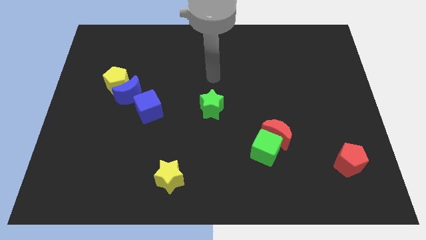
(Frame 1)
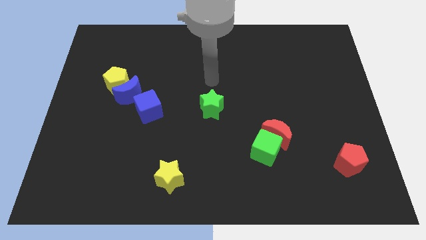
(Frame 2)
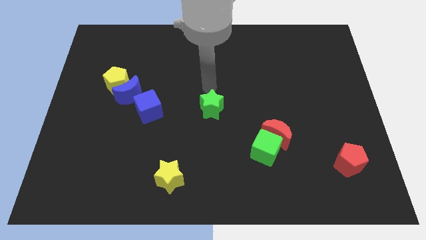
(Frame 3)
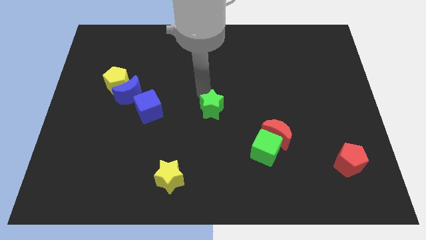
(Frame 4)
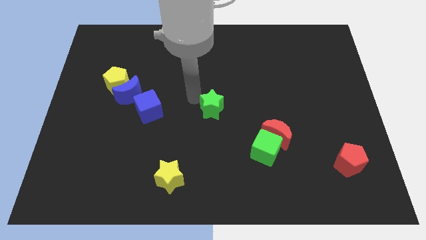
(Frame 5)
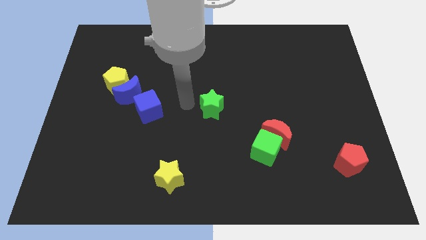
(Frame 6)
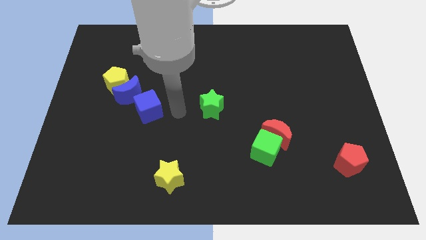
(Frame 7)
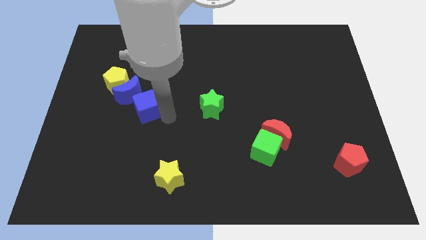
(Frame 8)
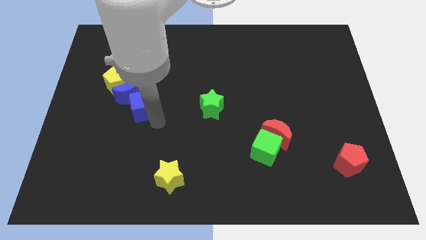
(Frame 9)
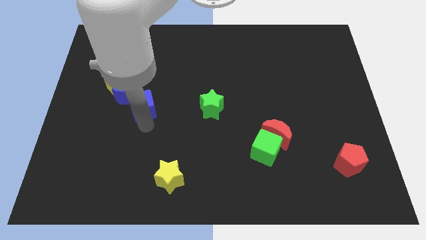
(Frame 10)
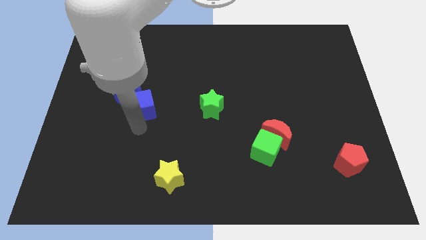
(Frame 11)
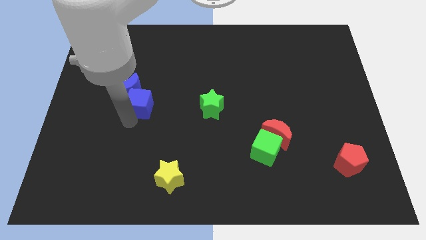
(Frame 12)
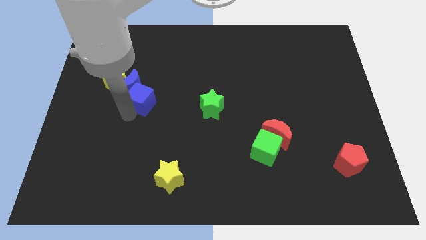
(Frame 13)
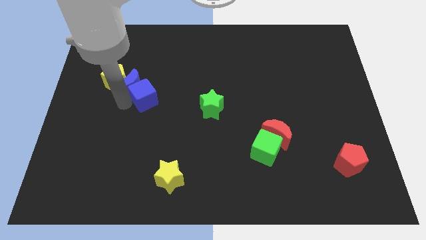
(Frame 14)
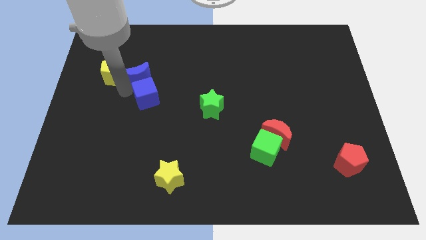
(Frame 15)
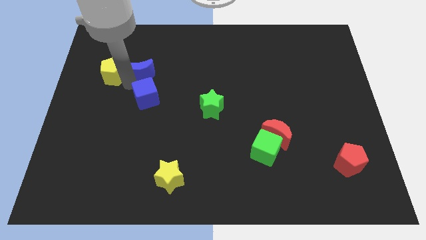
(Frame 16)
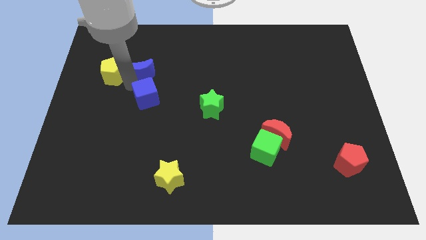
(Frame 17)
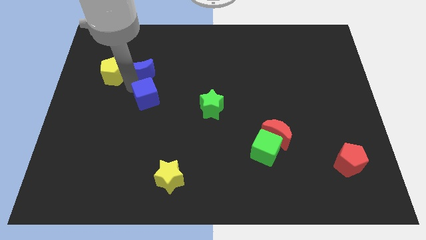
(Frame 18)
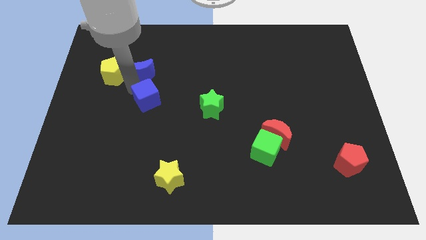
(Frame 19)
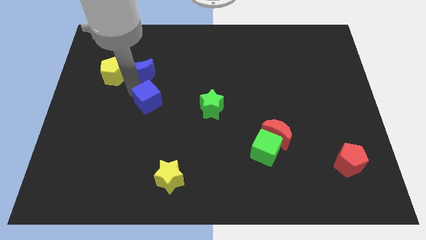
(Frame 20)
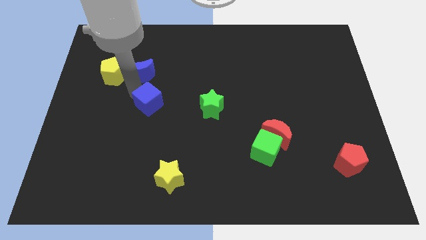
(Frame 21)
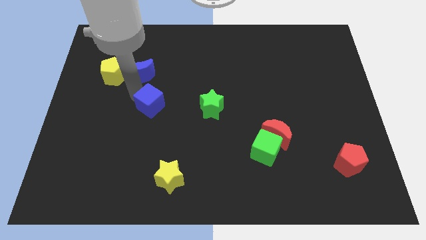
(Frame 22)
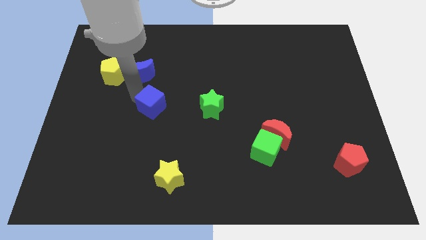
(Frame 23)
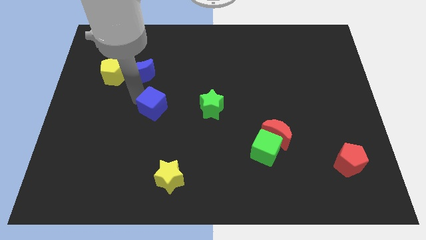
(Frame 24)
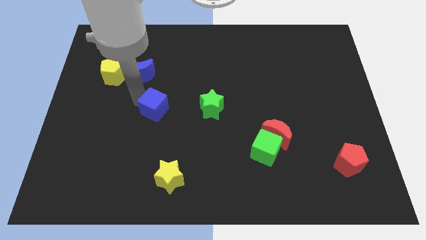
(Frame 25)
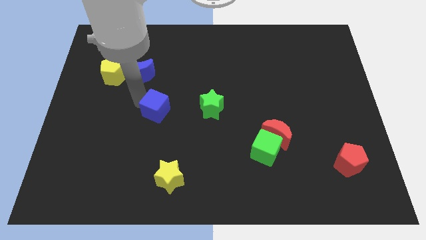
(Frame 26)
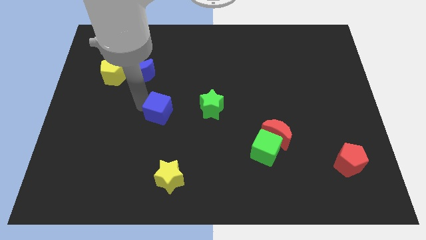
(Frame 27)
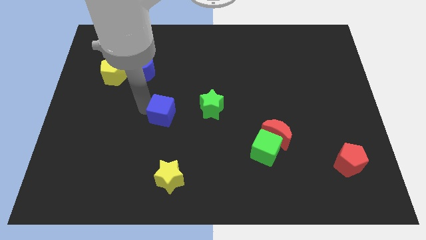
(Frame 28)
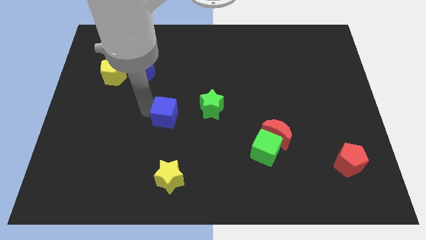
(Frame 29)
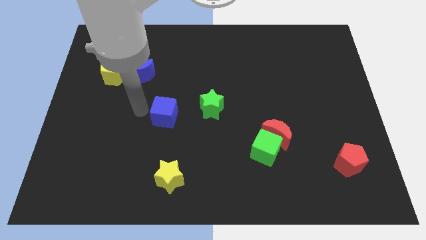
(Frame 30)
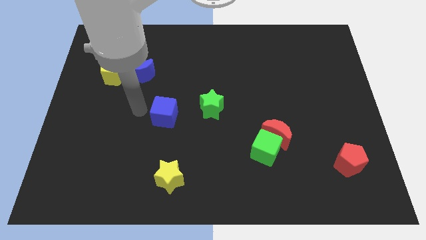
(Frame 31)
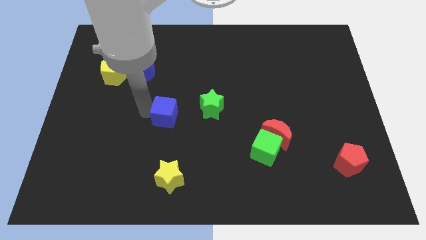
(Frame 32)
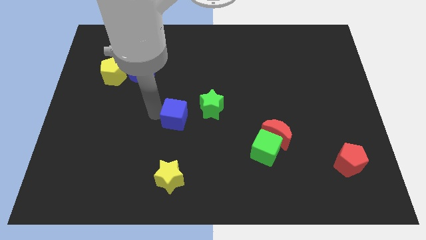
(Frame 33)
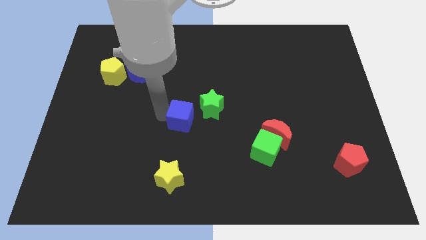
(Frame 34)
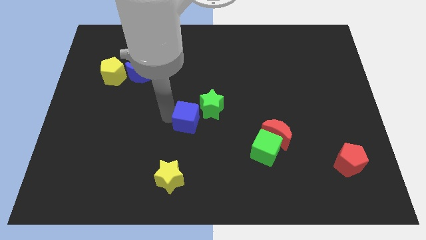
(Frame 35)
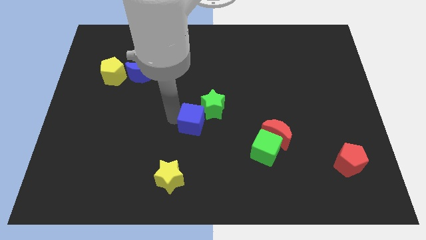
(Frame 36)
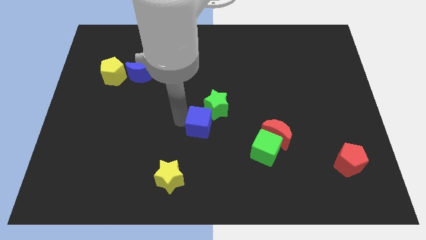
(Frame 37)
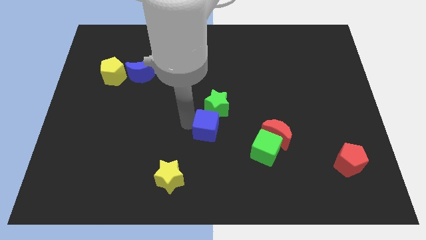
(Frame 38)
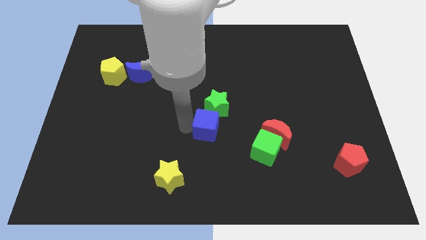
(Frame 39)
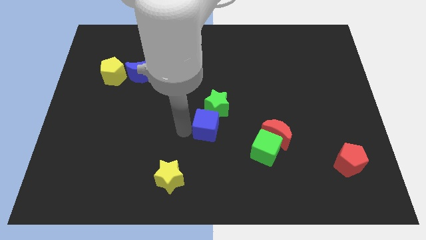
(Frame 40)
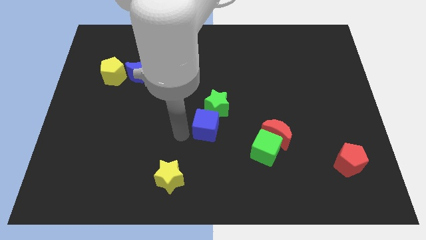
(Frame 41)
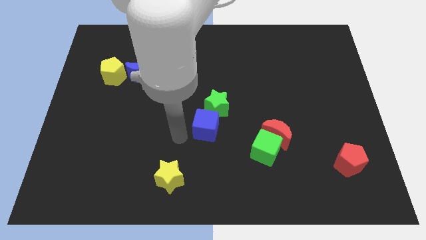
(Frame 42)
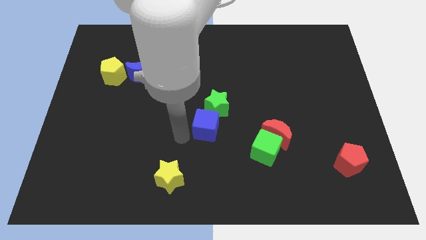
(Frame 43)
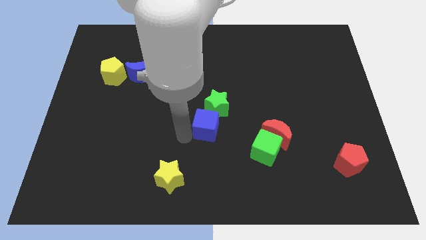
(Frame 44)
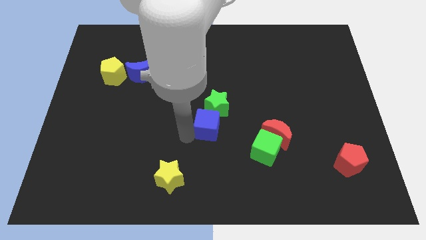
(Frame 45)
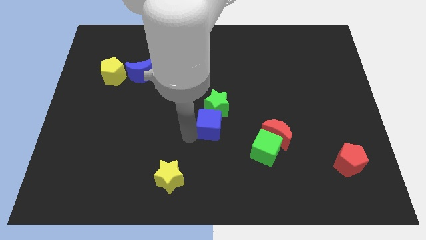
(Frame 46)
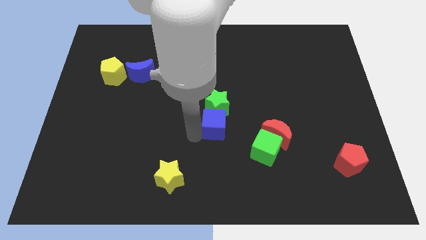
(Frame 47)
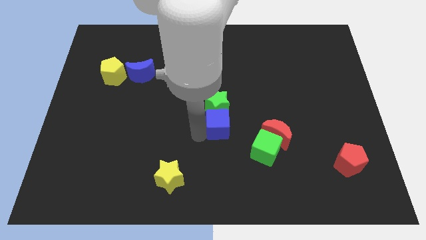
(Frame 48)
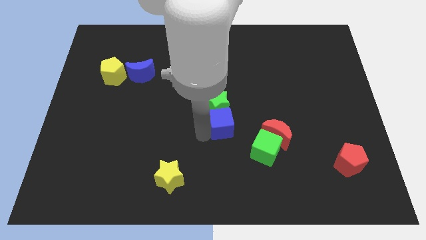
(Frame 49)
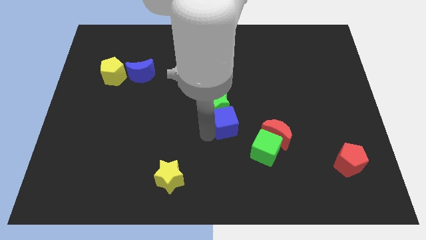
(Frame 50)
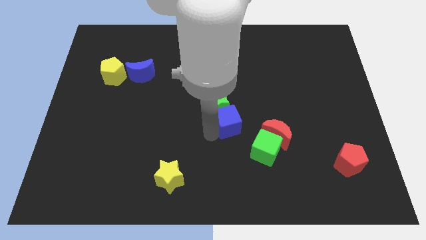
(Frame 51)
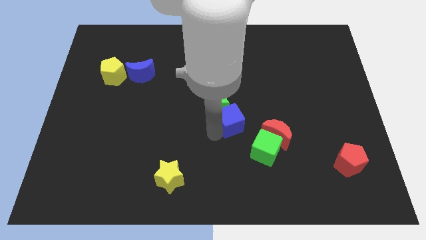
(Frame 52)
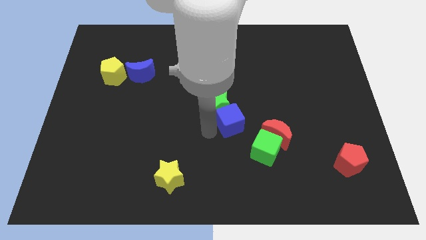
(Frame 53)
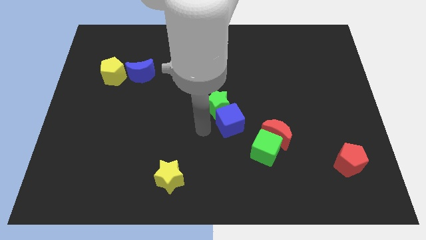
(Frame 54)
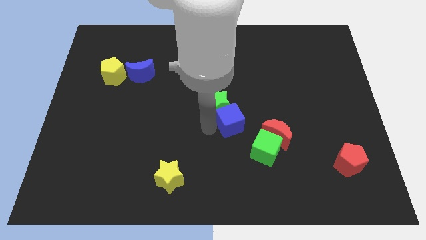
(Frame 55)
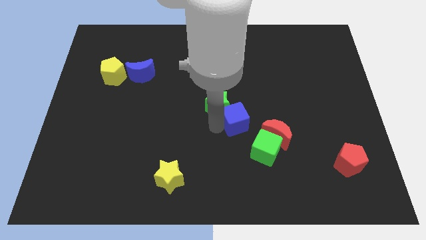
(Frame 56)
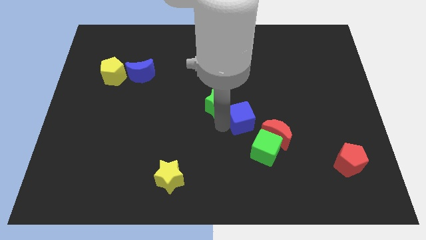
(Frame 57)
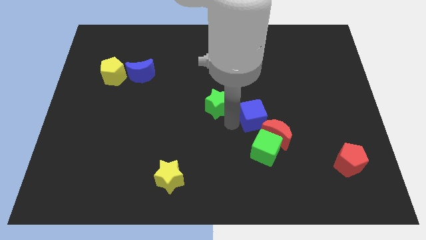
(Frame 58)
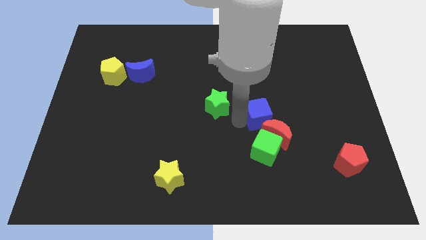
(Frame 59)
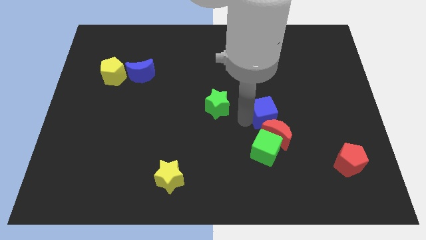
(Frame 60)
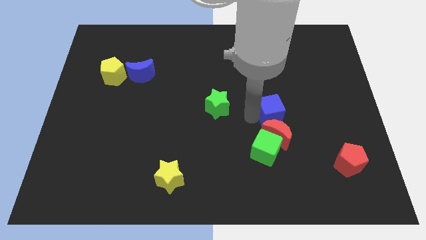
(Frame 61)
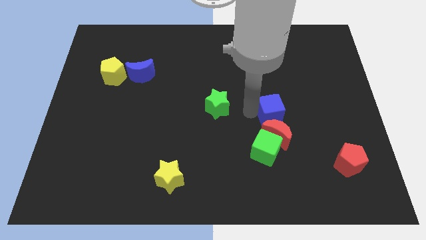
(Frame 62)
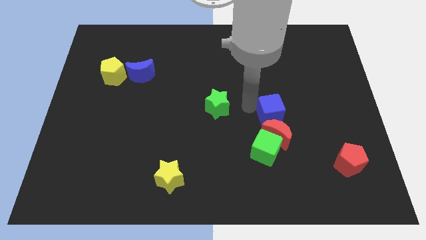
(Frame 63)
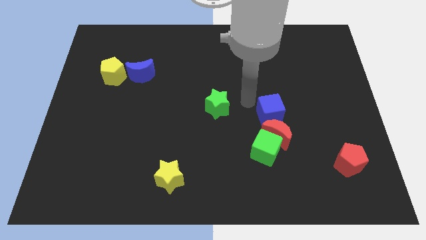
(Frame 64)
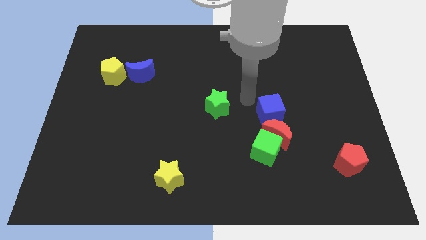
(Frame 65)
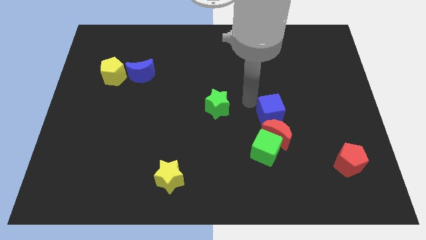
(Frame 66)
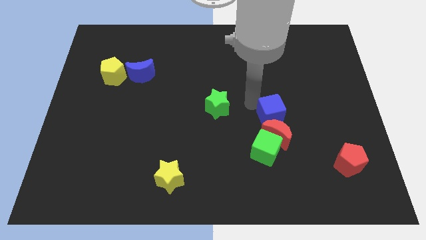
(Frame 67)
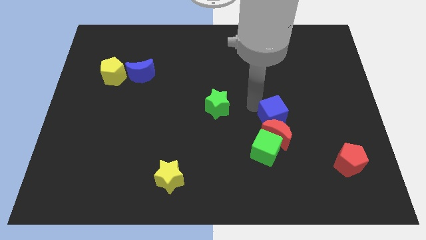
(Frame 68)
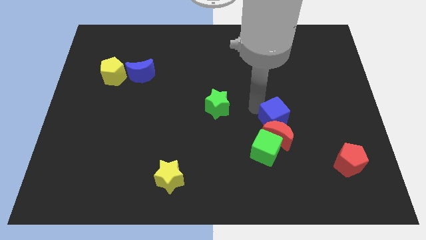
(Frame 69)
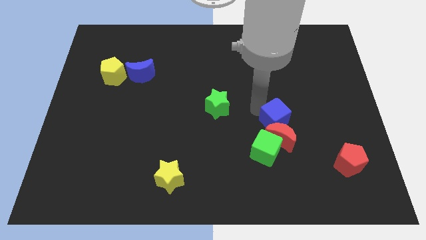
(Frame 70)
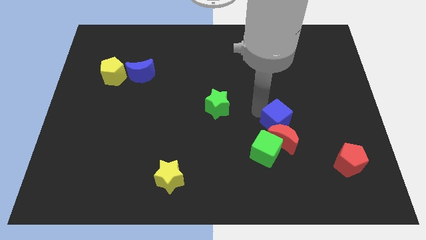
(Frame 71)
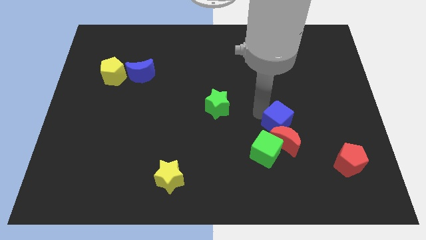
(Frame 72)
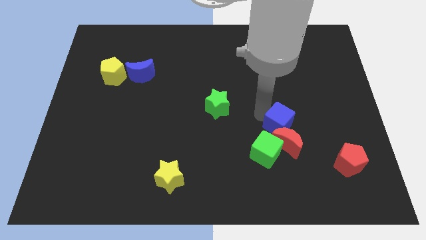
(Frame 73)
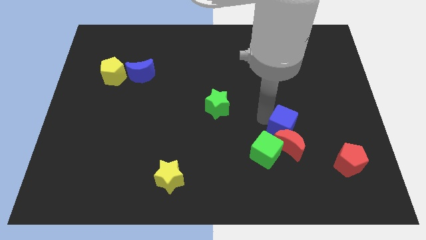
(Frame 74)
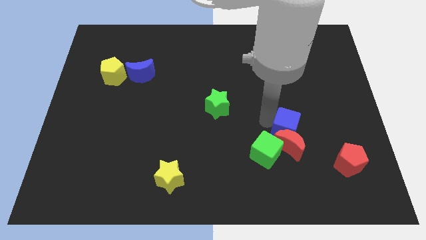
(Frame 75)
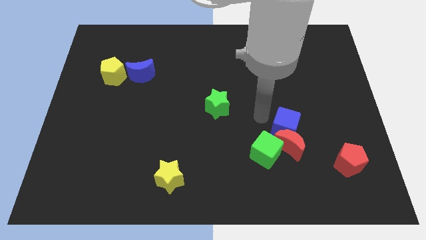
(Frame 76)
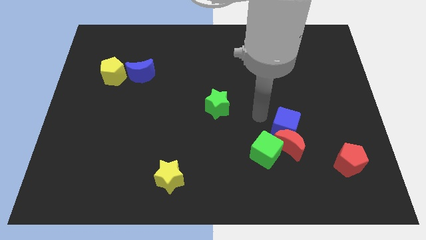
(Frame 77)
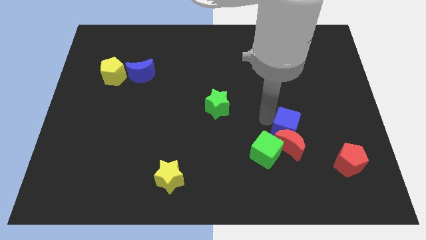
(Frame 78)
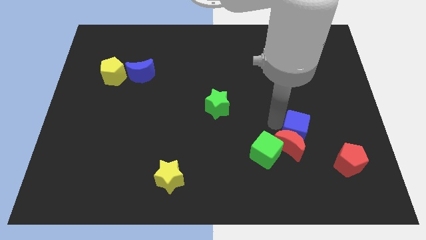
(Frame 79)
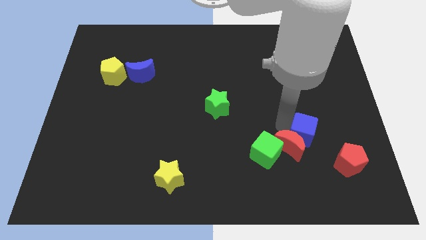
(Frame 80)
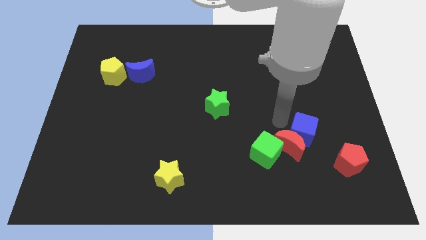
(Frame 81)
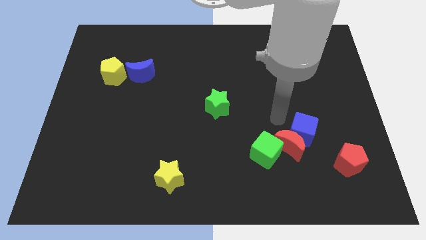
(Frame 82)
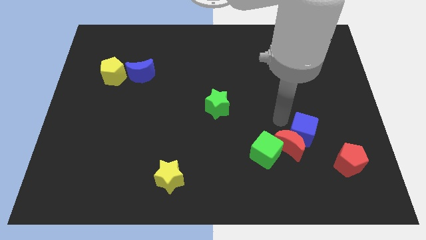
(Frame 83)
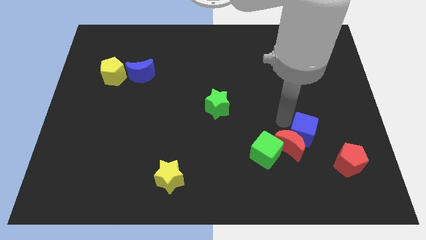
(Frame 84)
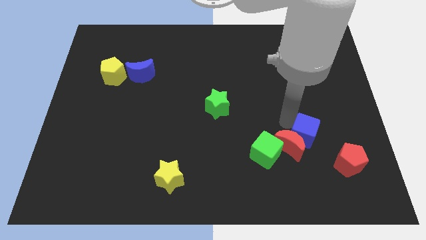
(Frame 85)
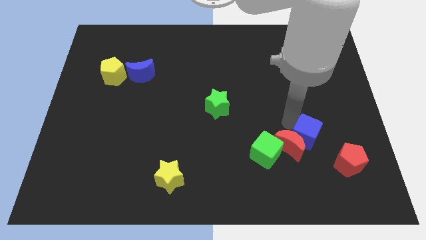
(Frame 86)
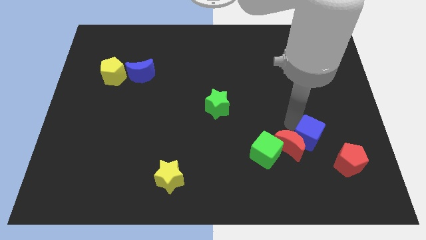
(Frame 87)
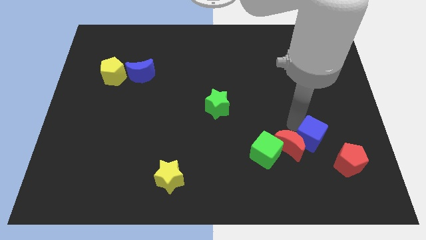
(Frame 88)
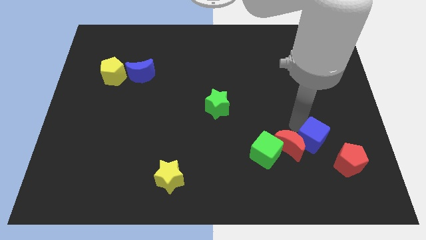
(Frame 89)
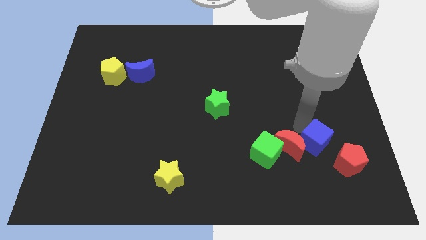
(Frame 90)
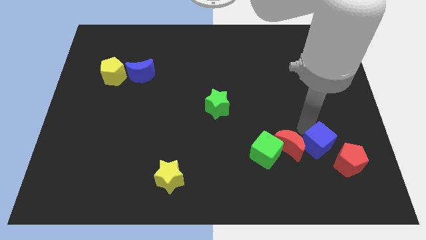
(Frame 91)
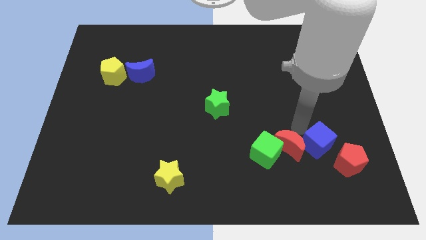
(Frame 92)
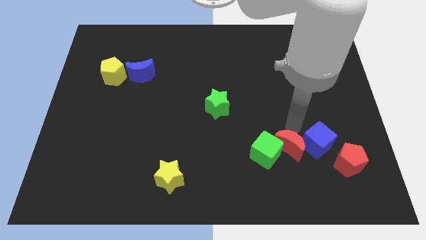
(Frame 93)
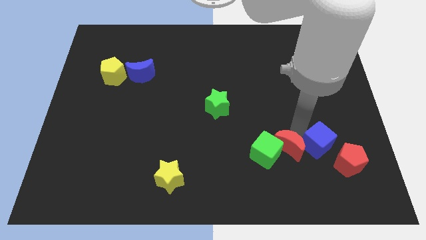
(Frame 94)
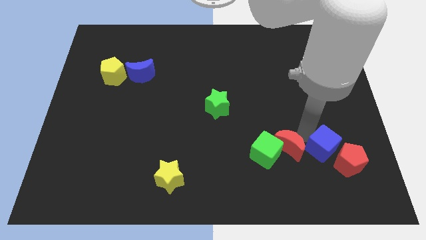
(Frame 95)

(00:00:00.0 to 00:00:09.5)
move the blue cube towards the red pentagon
